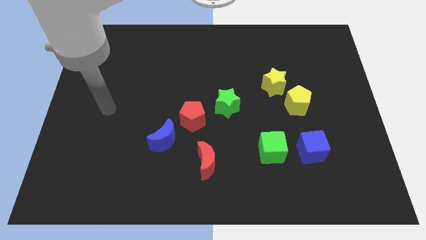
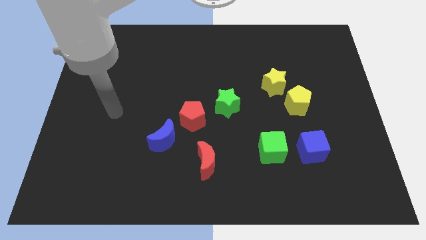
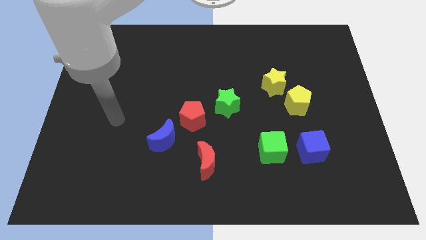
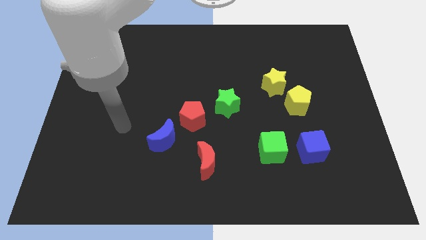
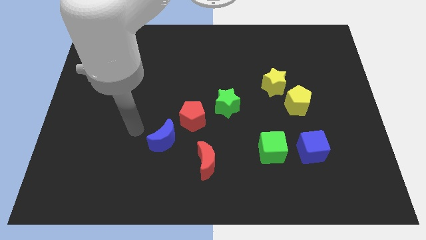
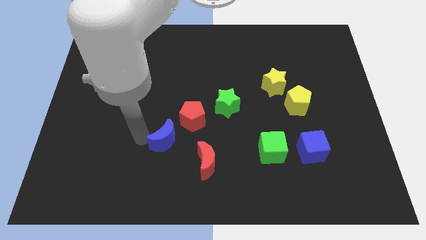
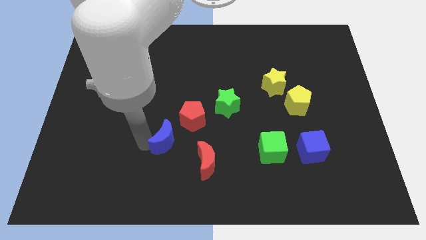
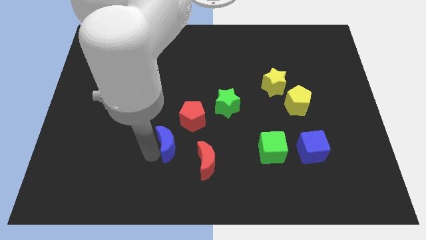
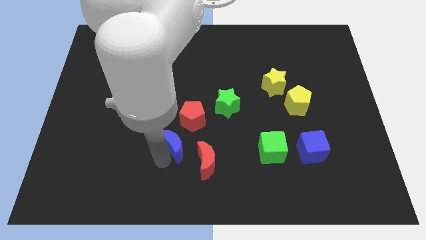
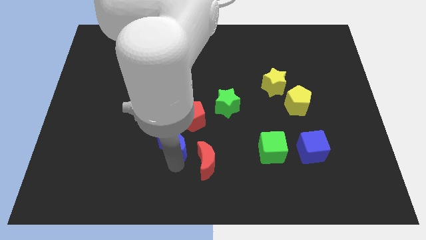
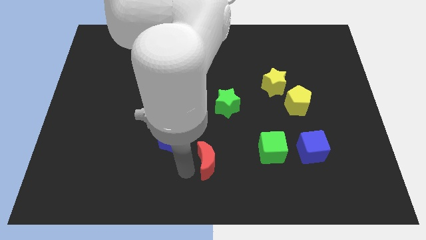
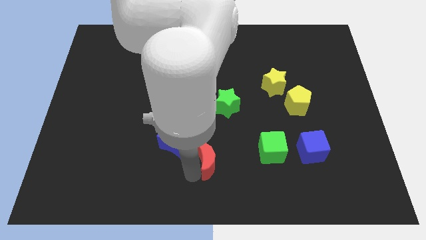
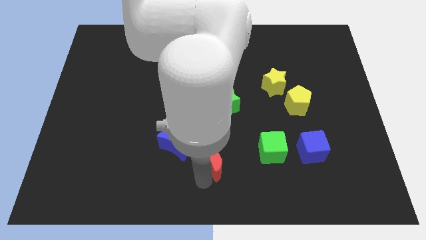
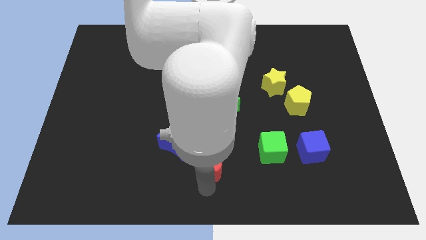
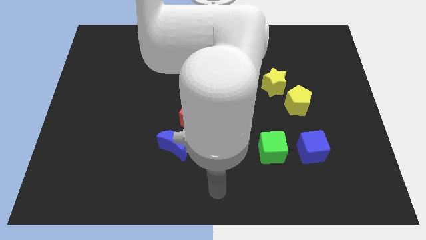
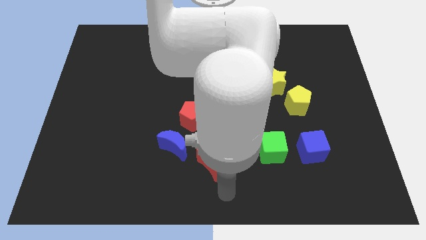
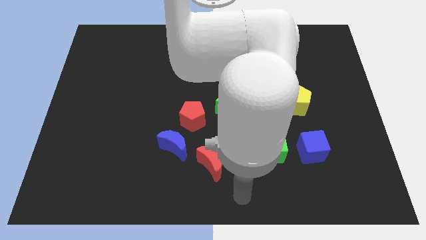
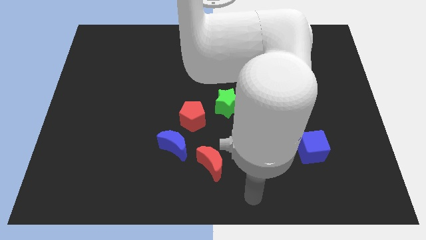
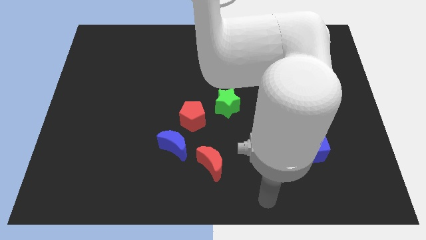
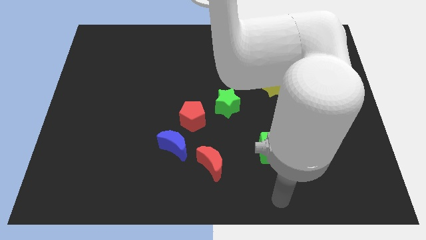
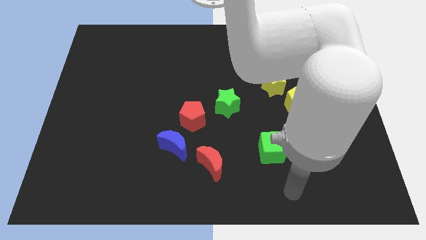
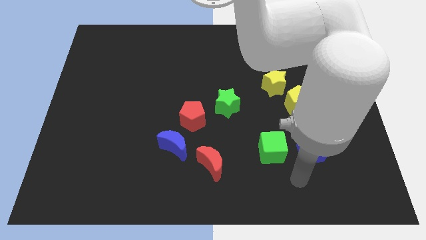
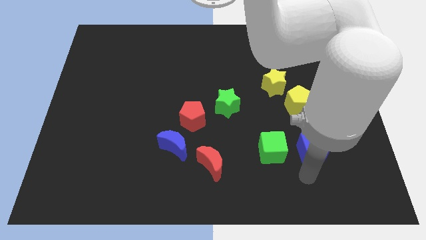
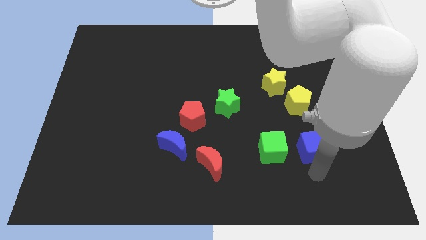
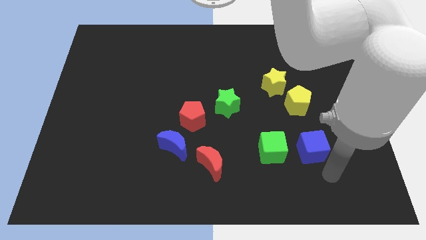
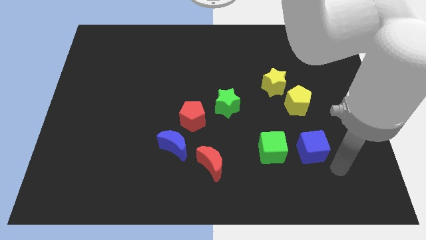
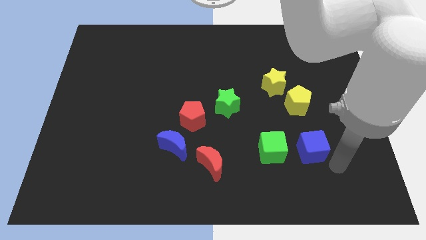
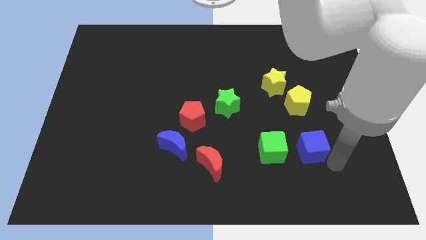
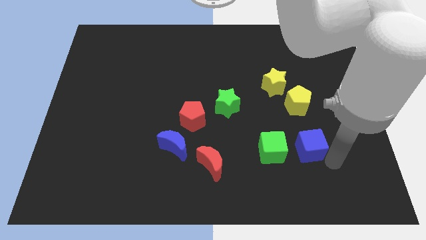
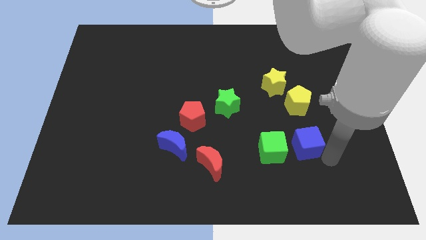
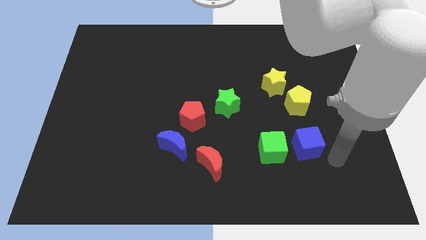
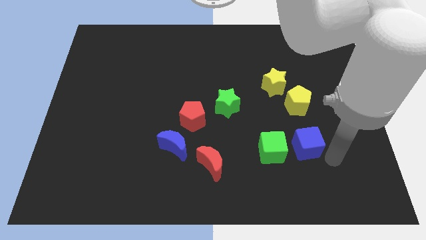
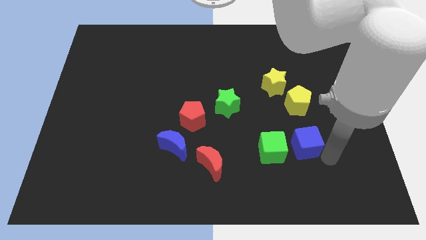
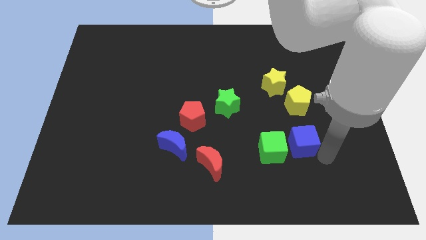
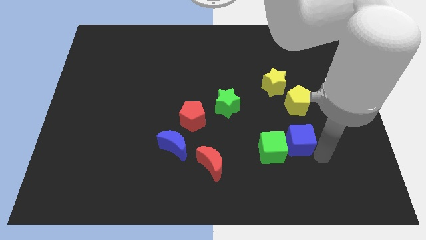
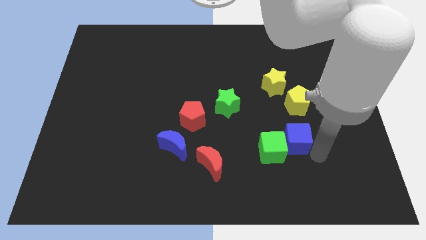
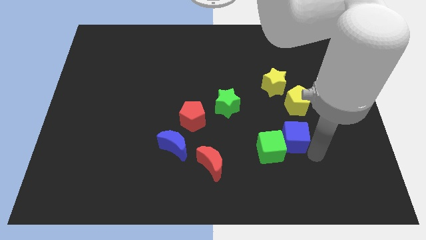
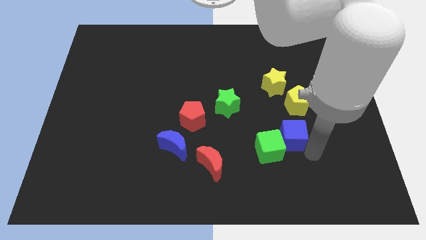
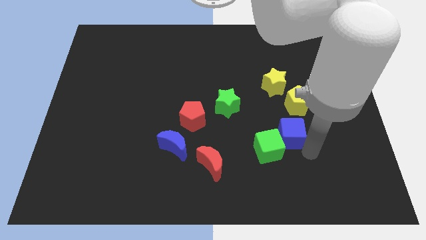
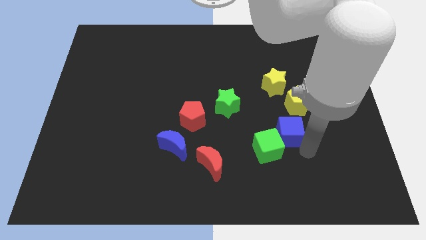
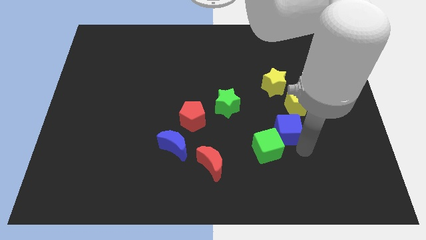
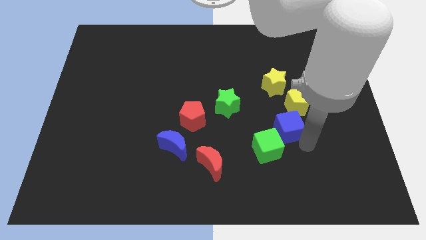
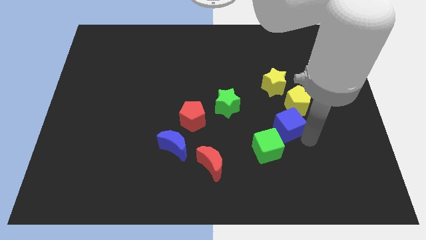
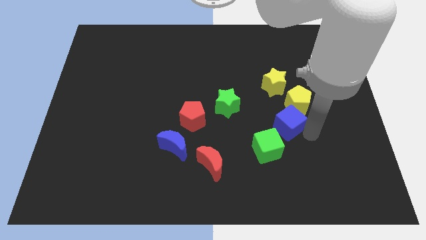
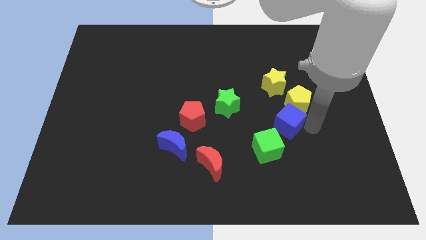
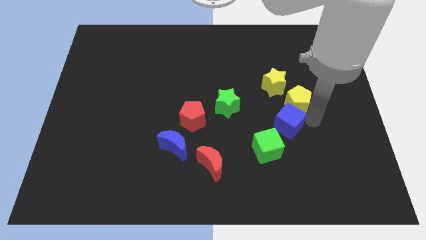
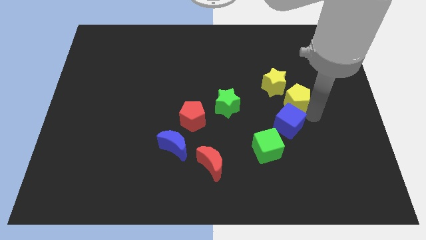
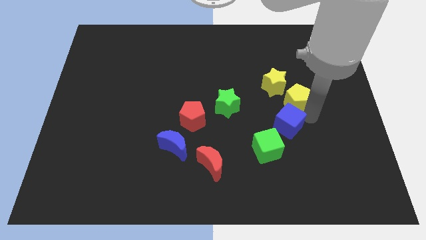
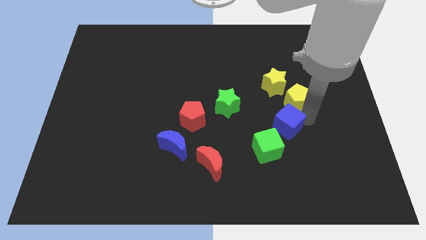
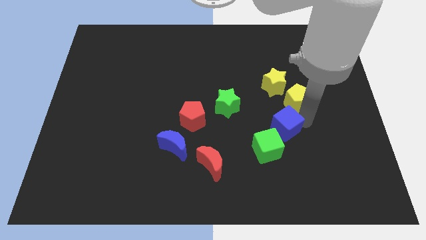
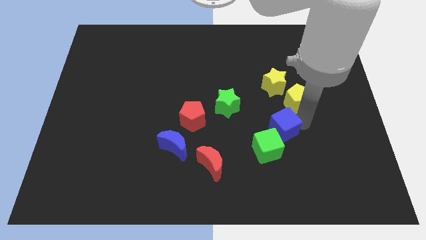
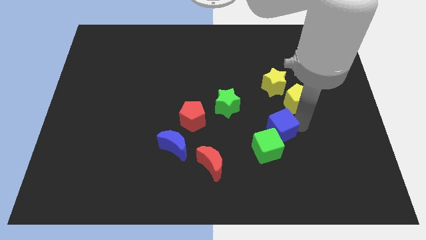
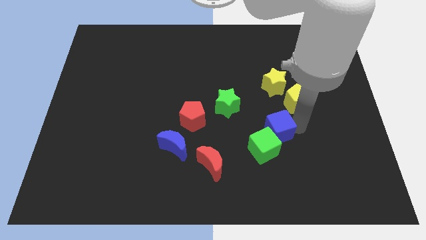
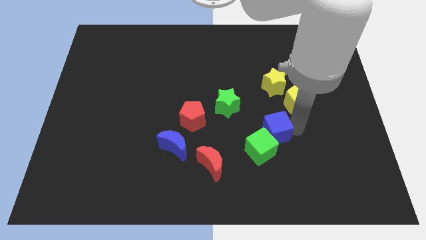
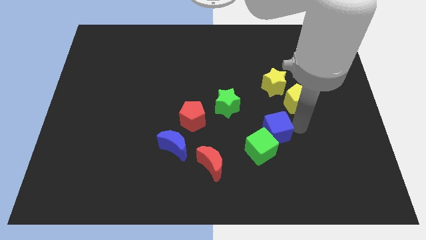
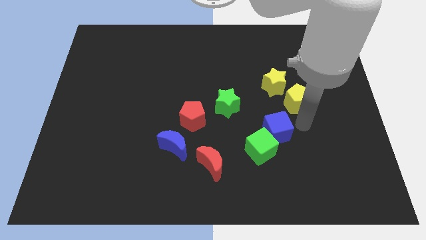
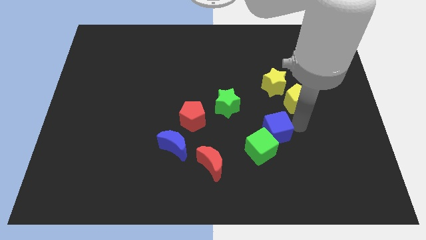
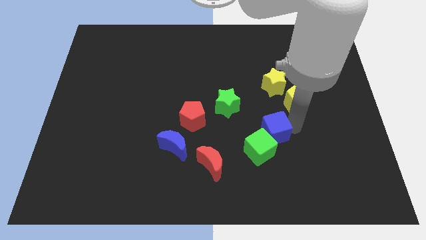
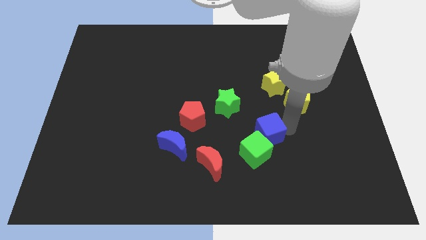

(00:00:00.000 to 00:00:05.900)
move the blue cube somewhat left

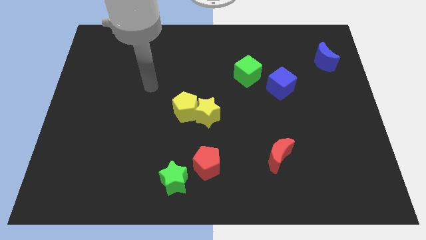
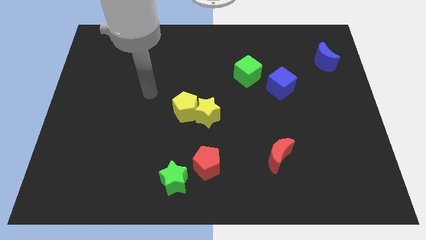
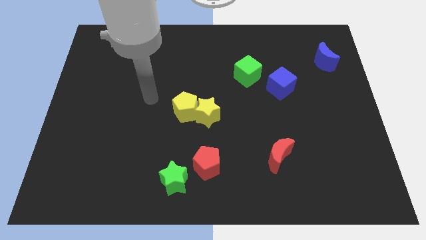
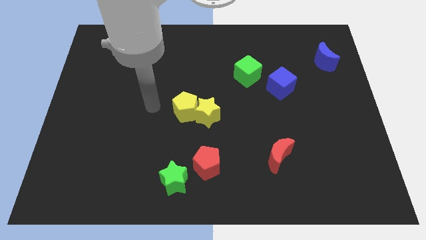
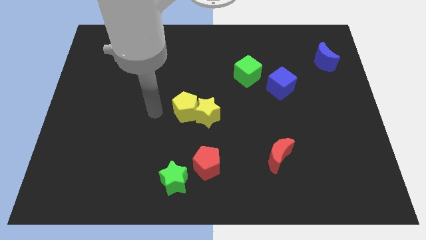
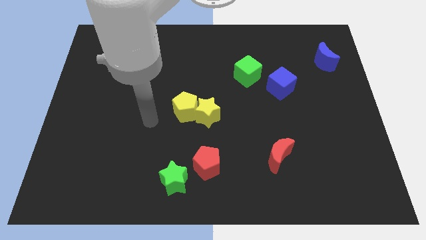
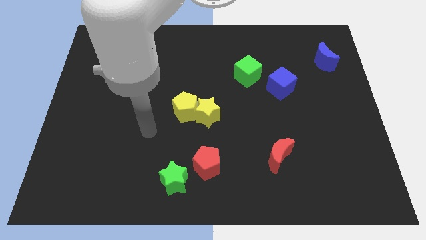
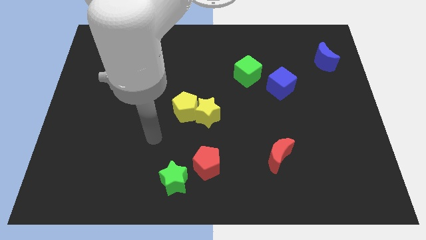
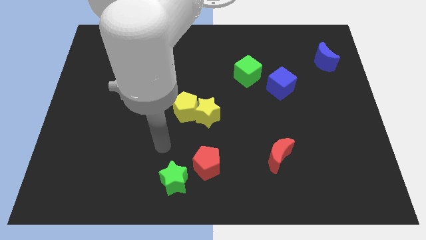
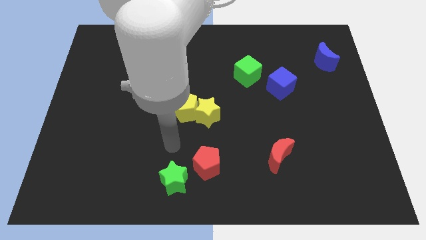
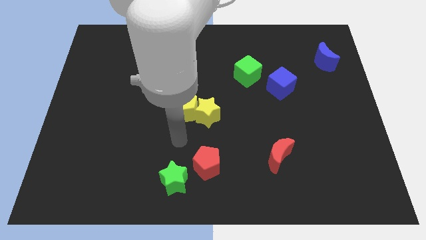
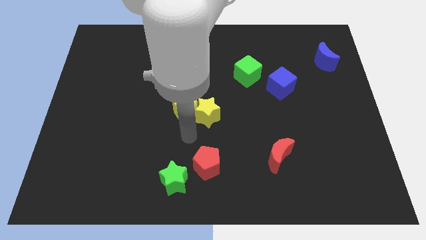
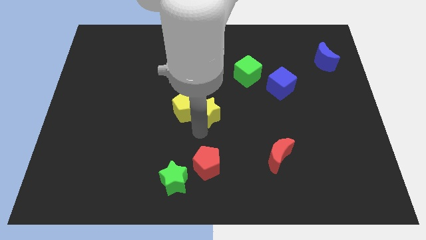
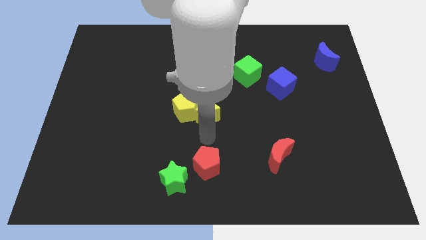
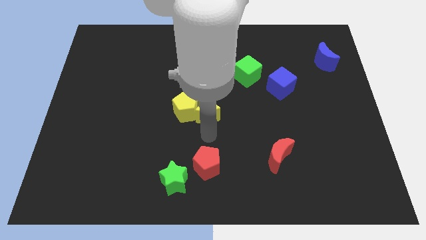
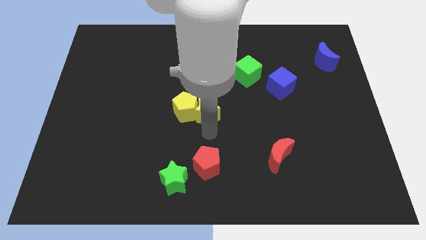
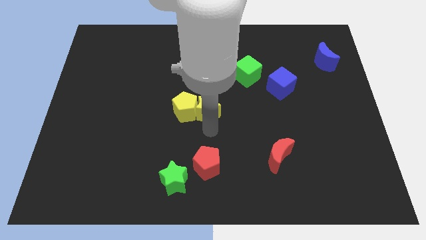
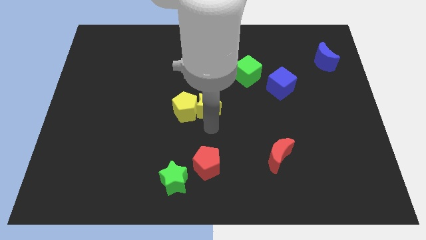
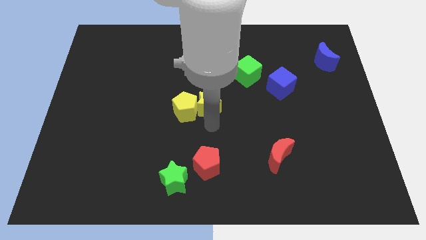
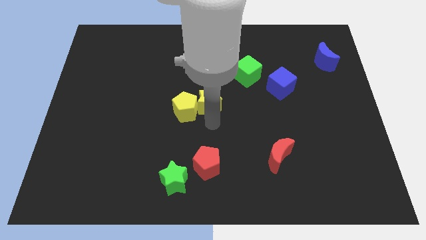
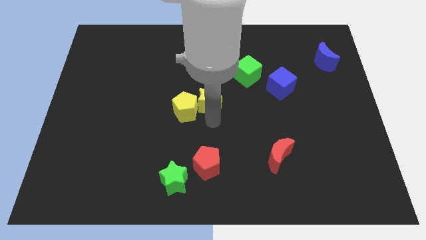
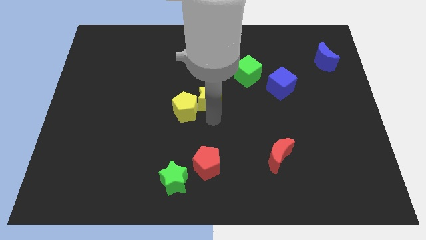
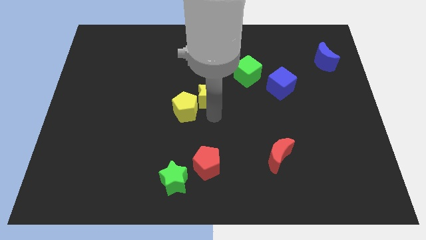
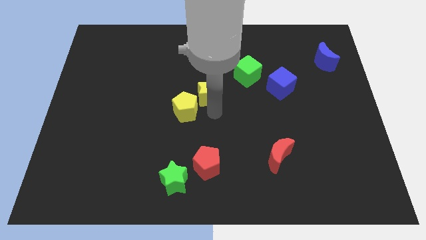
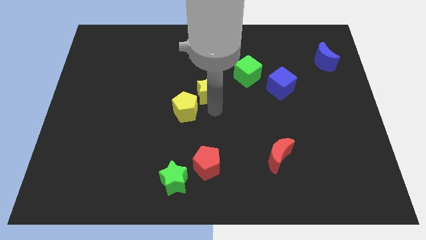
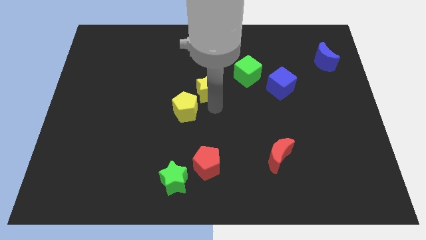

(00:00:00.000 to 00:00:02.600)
slightly push the yellow star up
